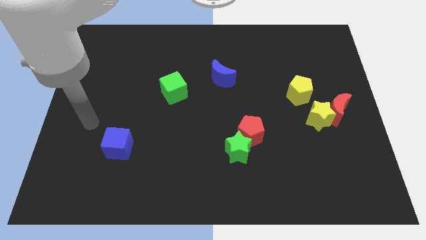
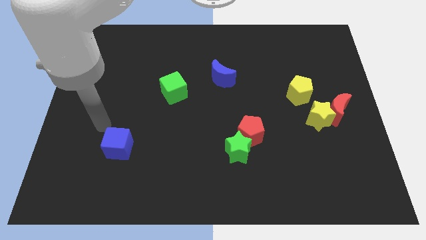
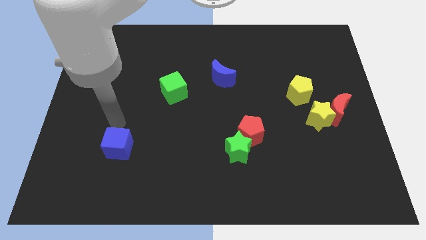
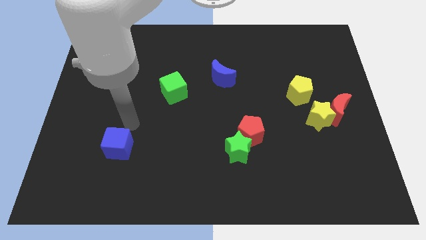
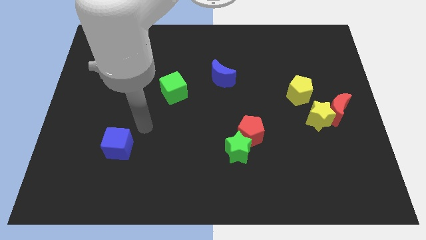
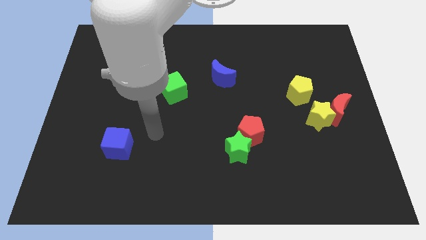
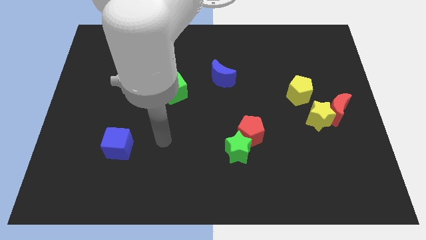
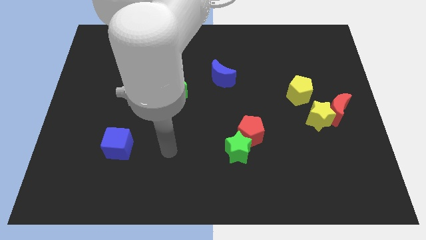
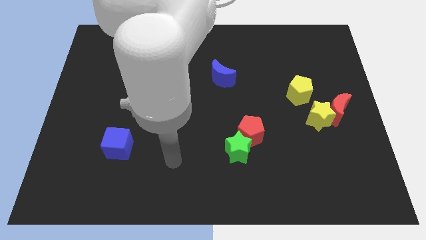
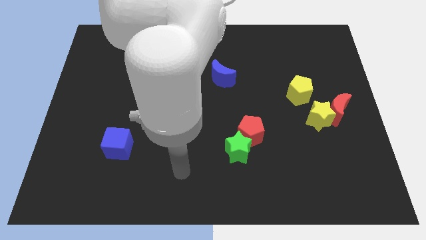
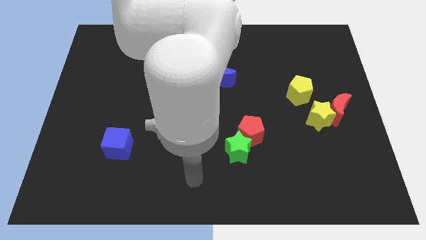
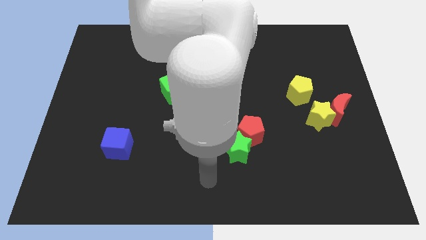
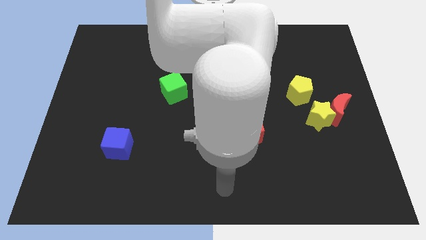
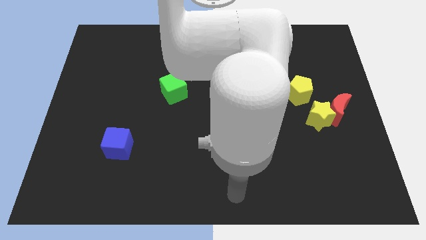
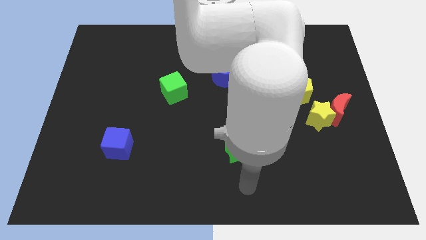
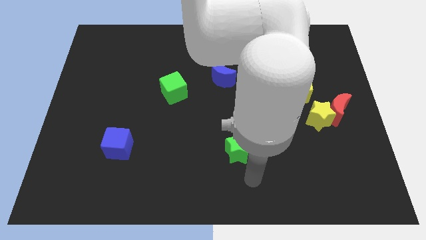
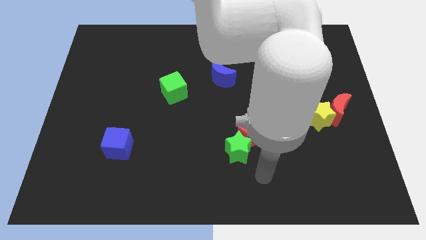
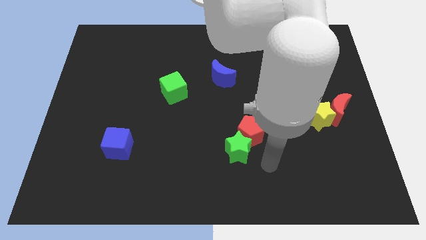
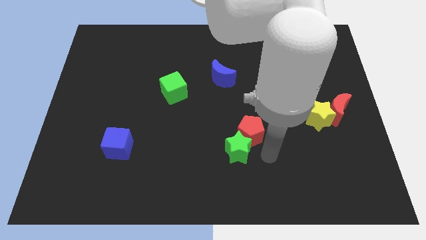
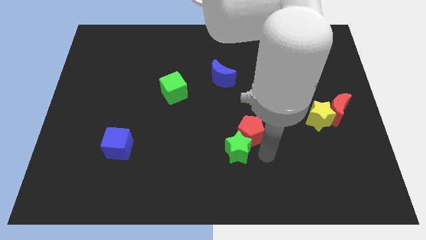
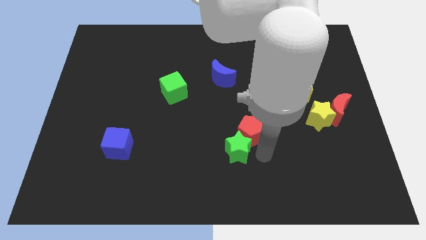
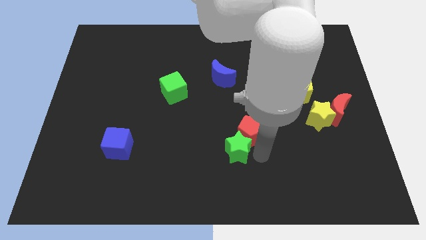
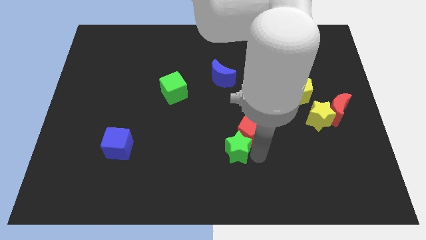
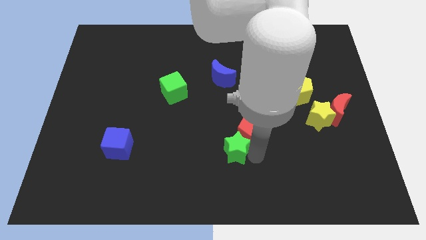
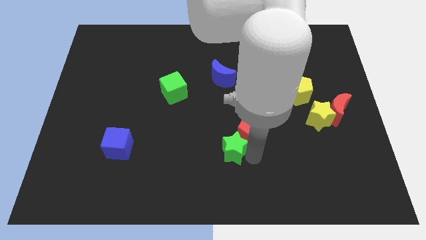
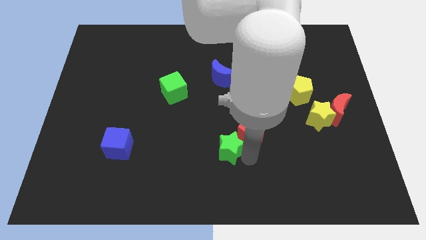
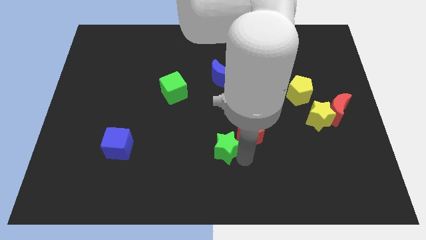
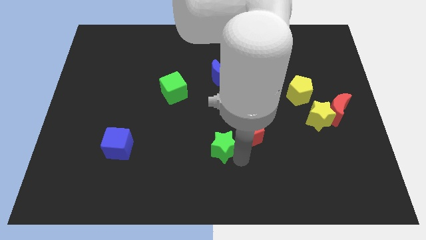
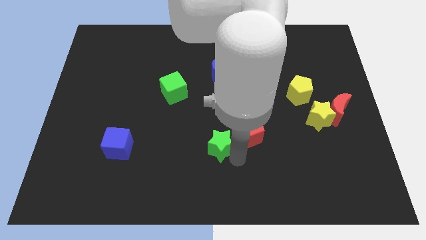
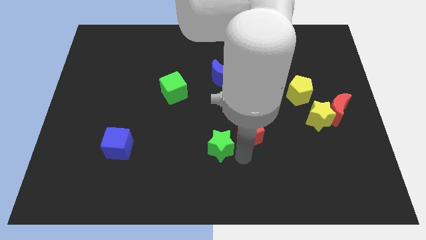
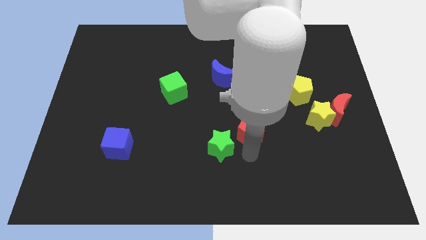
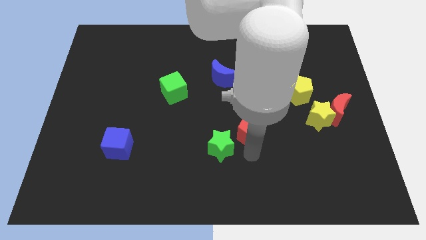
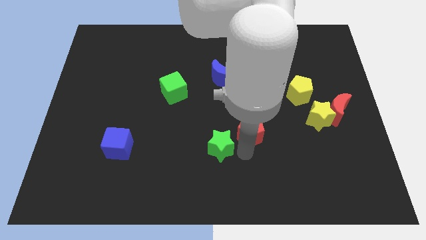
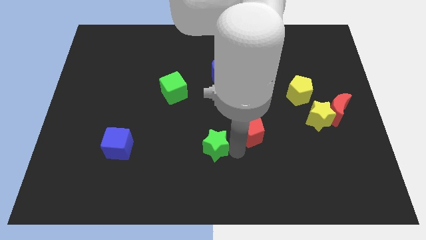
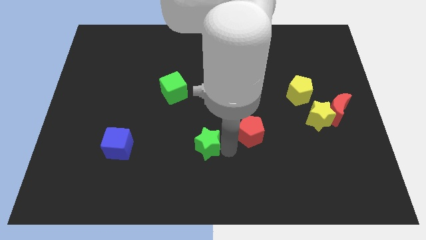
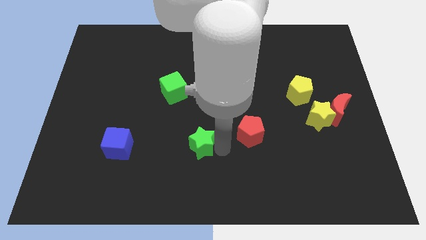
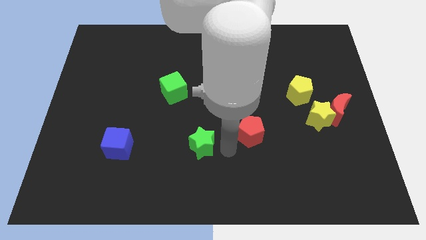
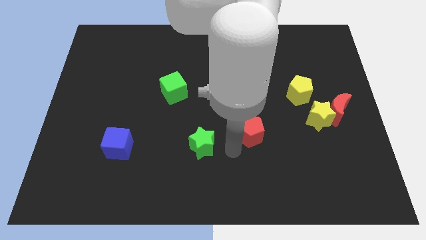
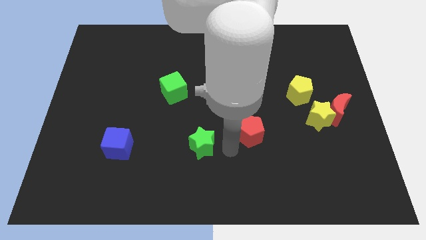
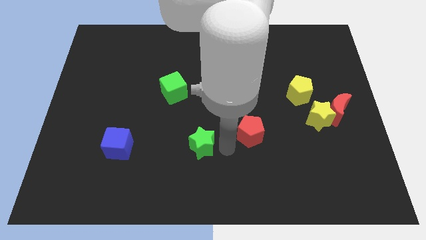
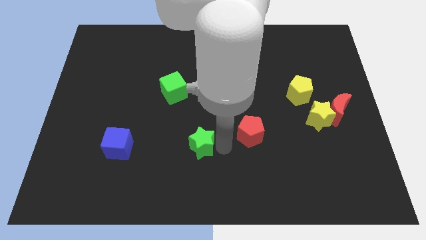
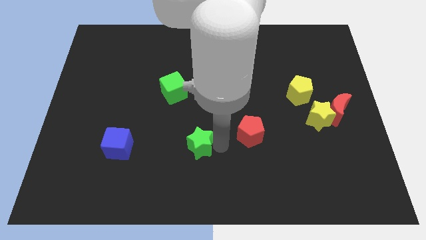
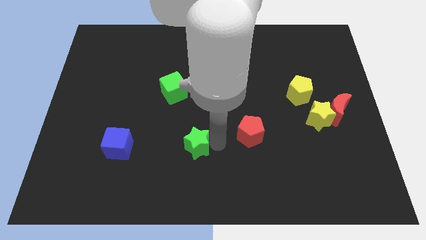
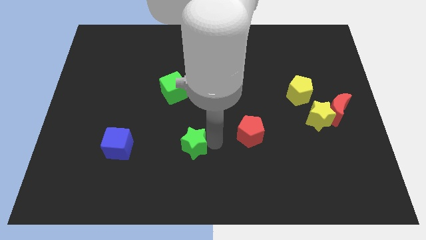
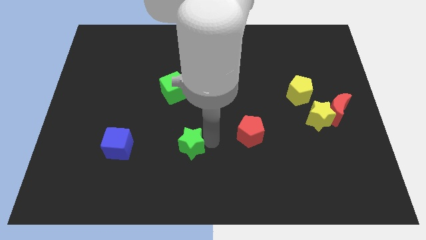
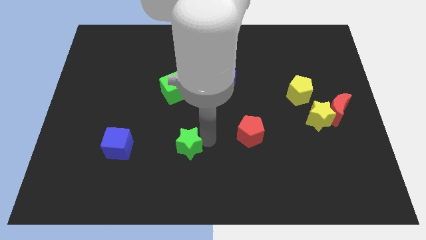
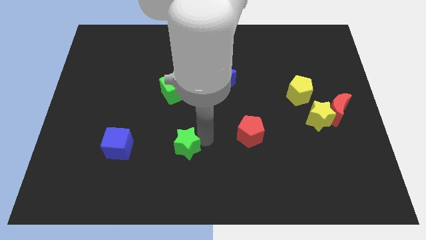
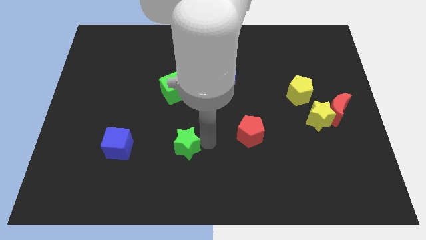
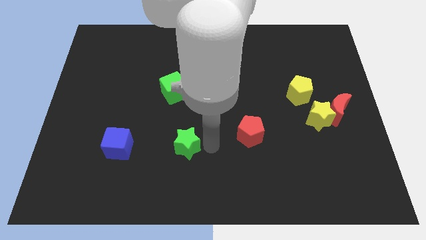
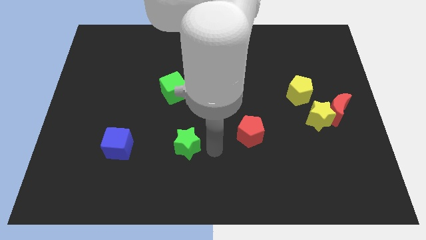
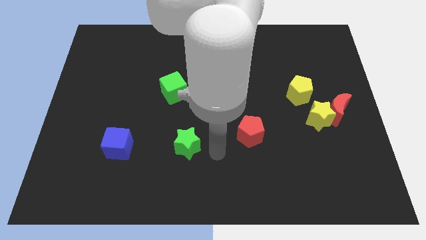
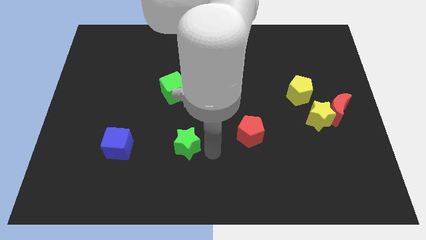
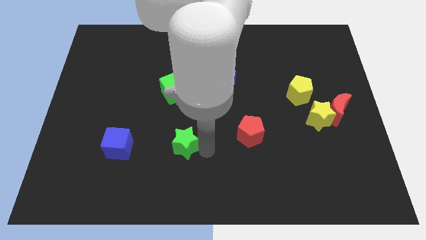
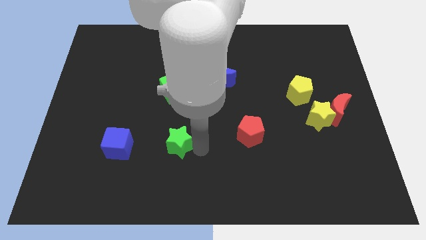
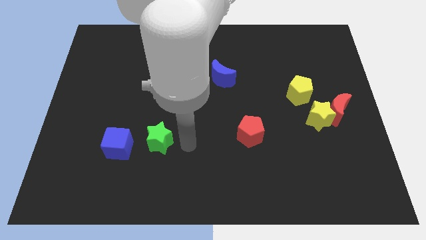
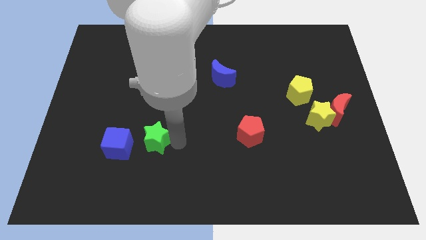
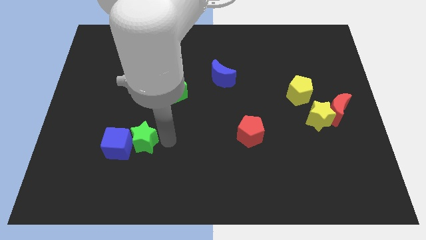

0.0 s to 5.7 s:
move the green star next to the blue cube

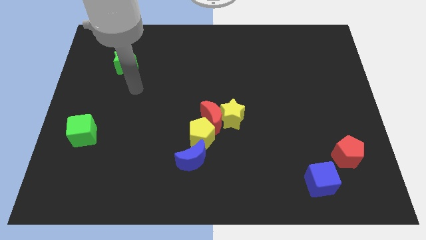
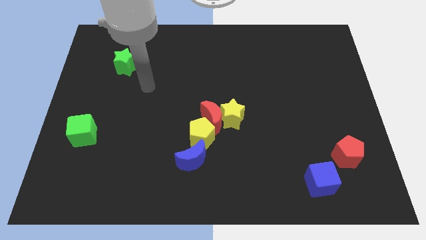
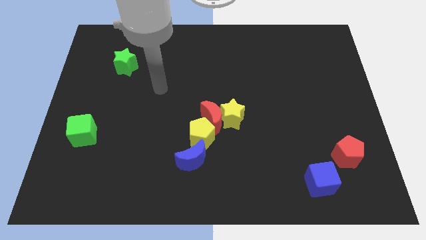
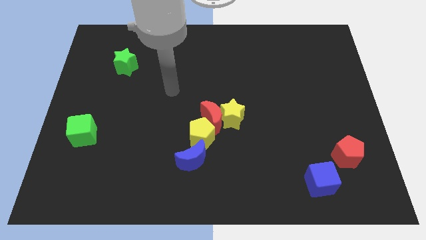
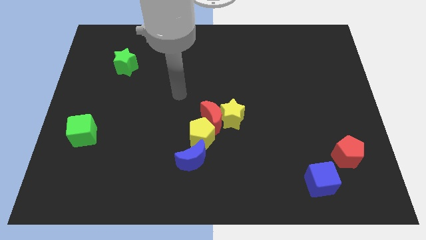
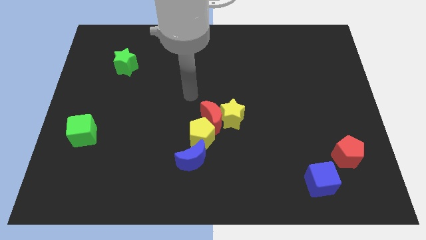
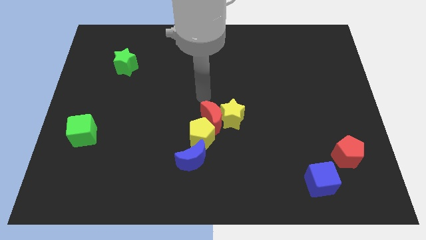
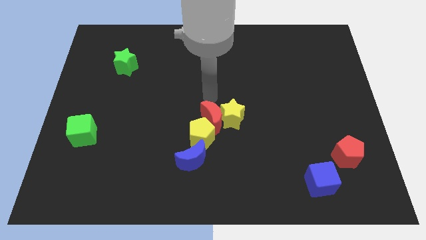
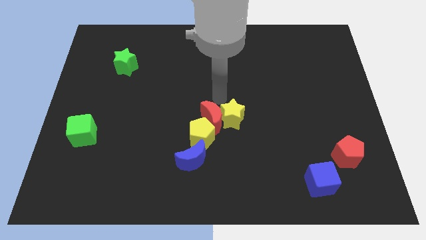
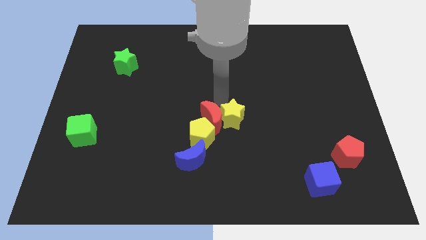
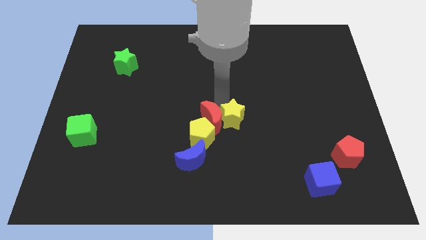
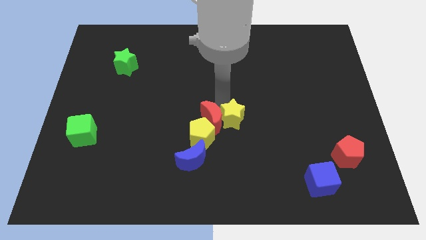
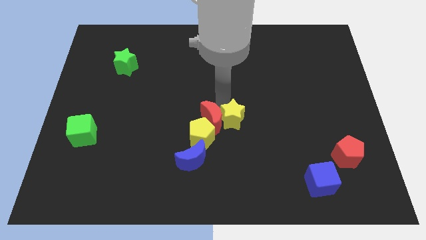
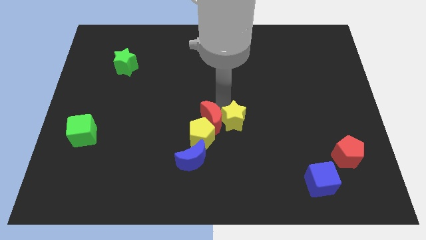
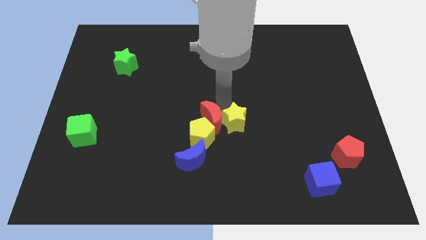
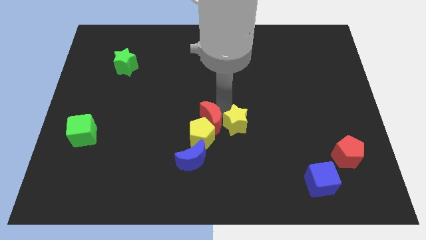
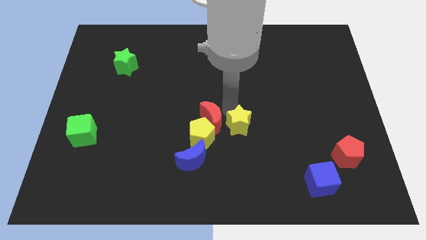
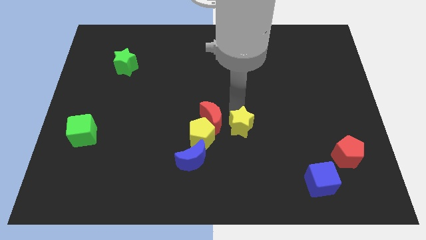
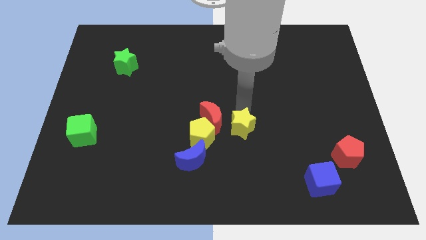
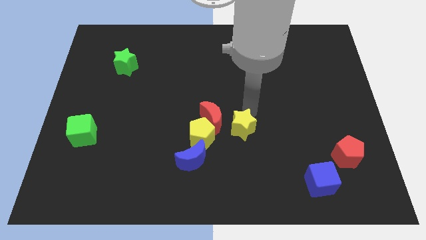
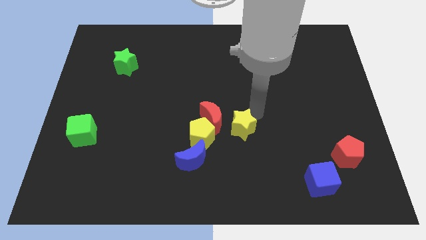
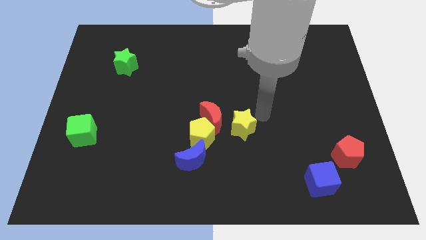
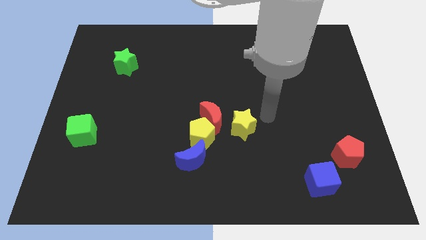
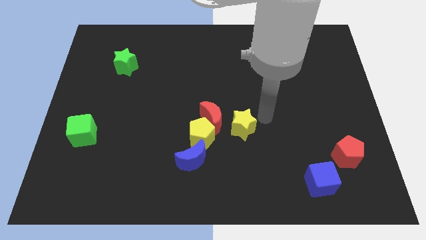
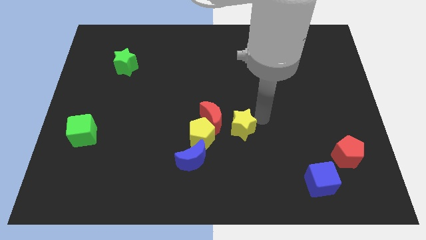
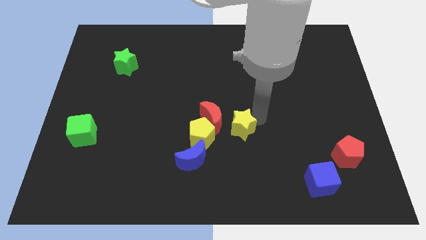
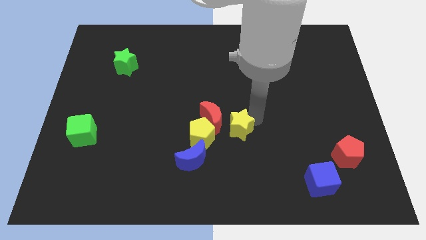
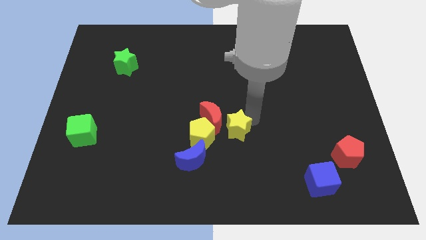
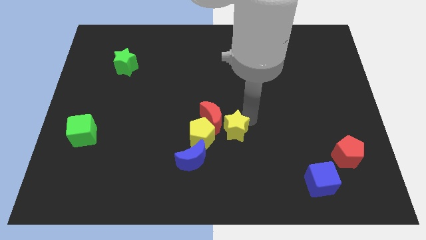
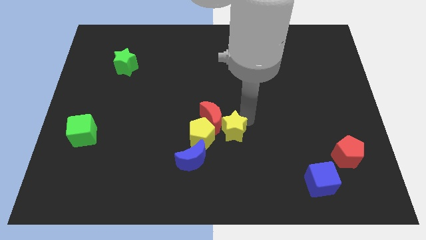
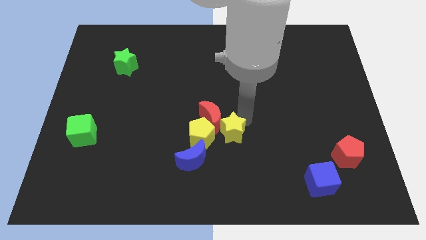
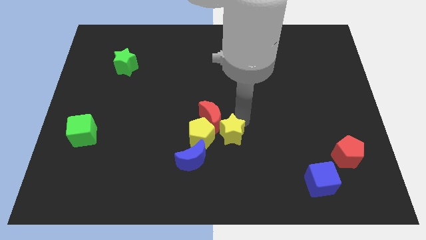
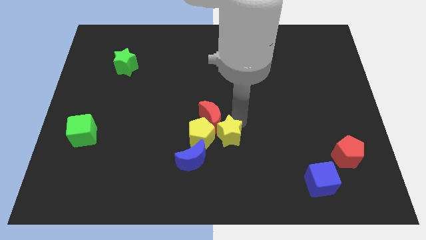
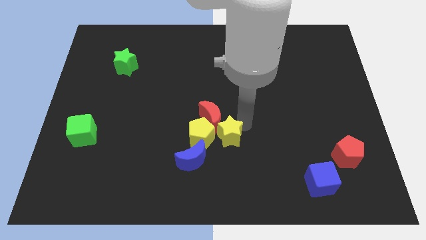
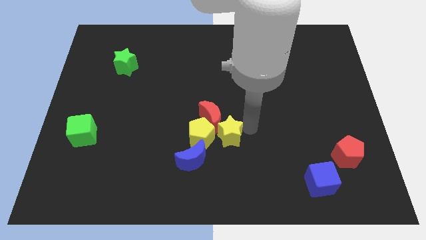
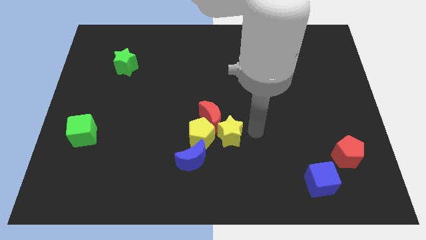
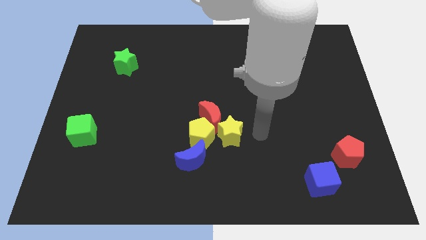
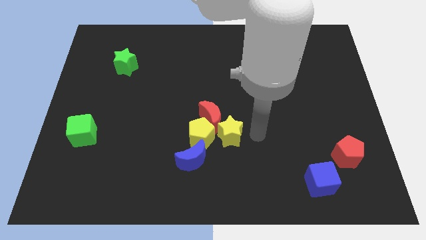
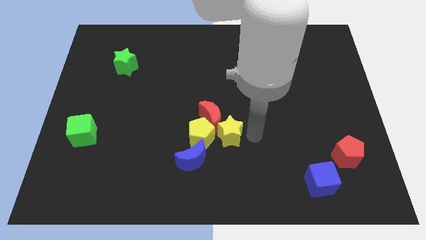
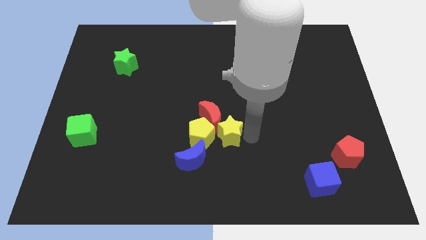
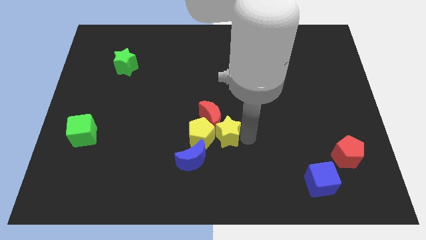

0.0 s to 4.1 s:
move the yellow star next to the yellow pentagon
